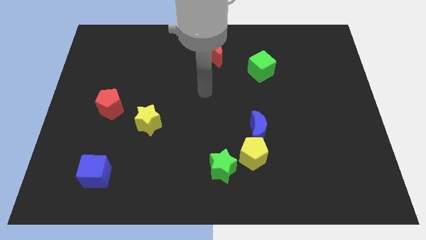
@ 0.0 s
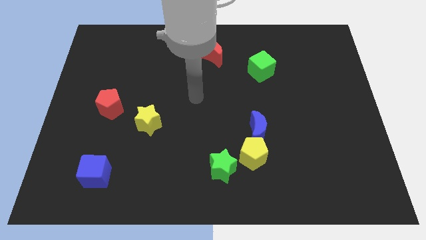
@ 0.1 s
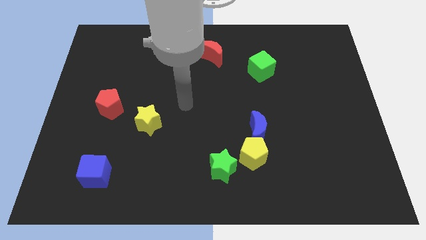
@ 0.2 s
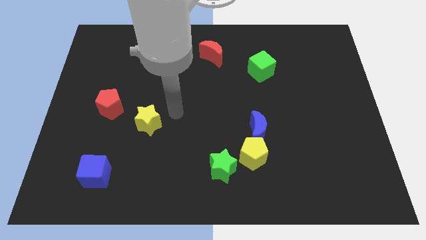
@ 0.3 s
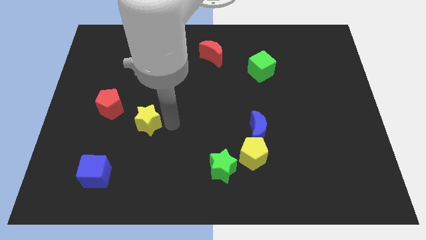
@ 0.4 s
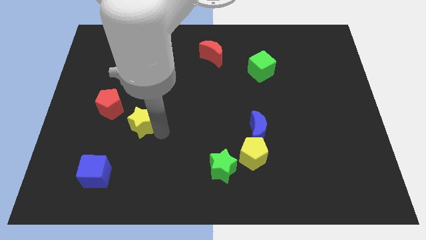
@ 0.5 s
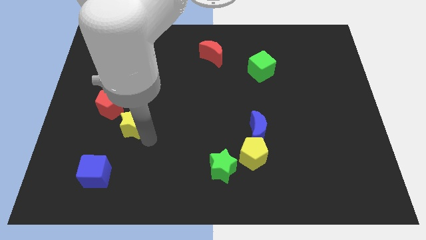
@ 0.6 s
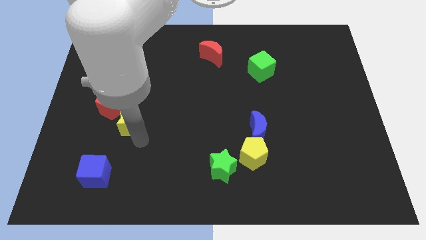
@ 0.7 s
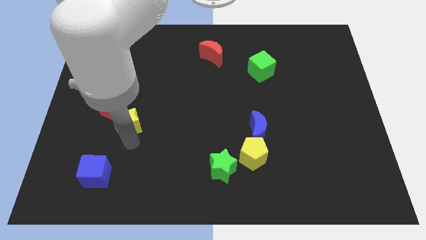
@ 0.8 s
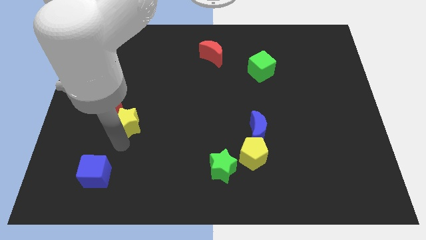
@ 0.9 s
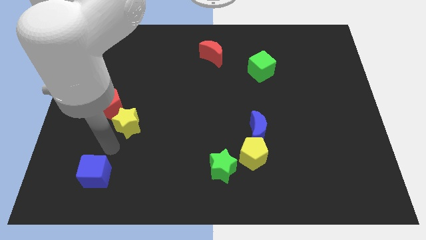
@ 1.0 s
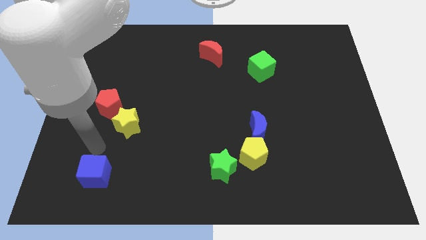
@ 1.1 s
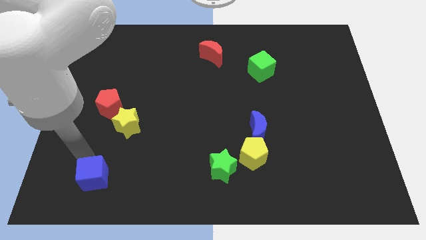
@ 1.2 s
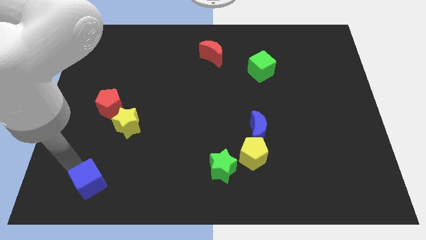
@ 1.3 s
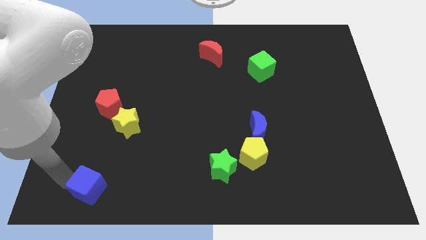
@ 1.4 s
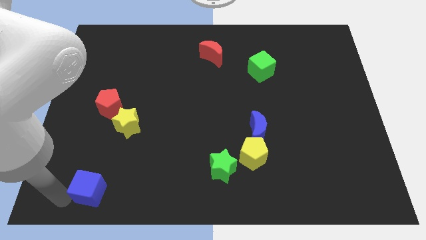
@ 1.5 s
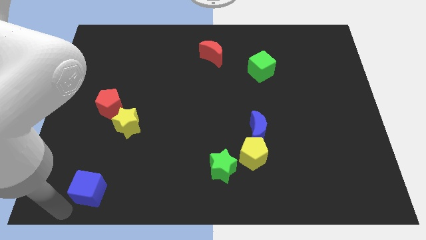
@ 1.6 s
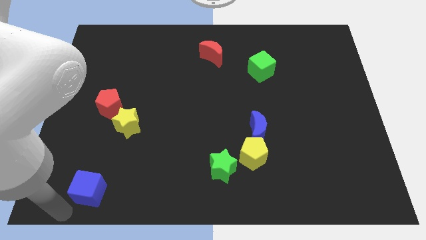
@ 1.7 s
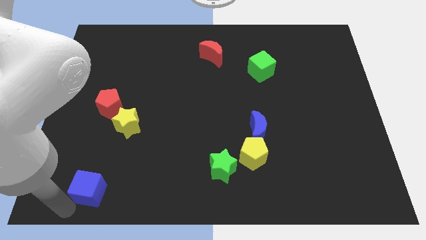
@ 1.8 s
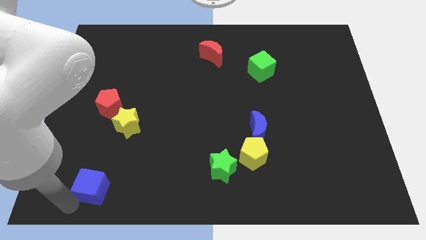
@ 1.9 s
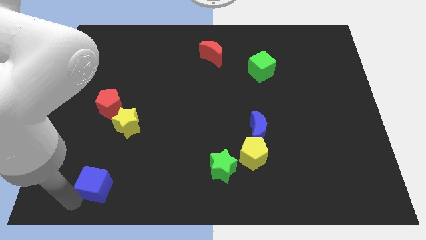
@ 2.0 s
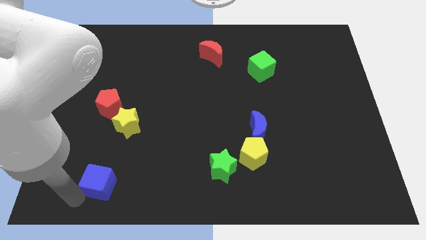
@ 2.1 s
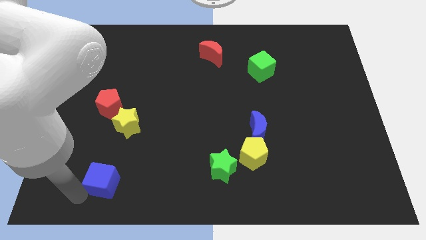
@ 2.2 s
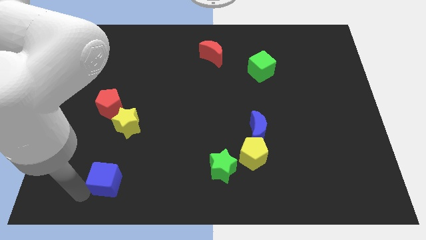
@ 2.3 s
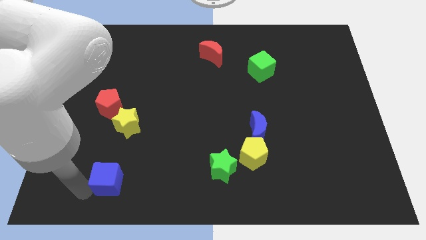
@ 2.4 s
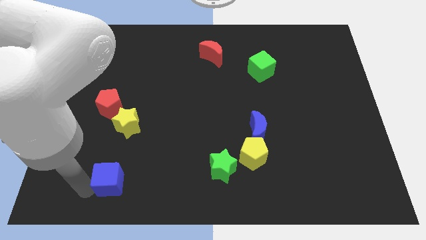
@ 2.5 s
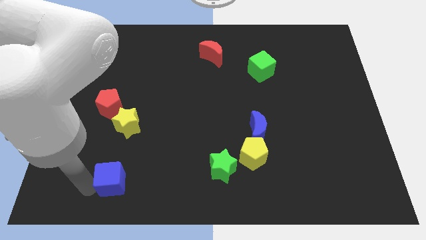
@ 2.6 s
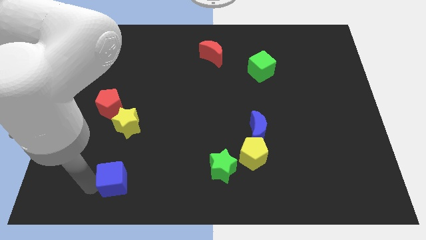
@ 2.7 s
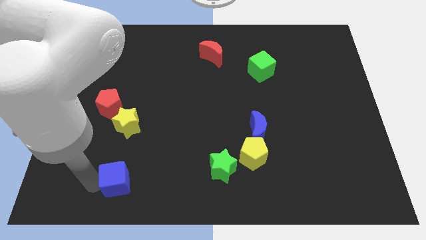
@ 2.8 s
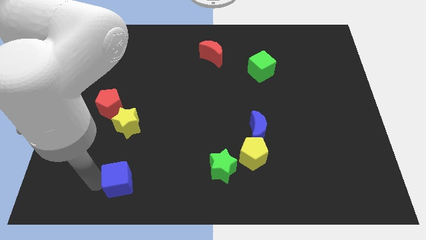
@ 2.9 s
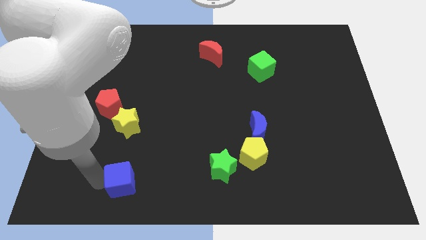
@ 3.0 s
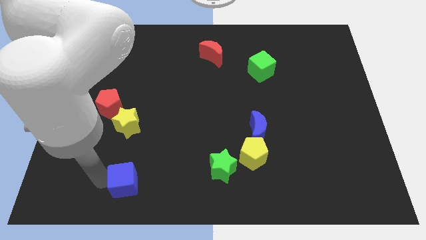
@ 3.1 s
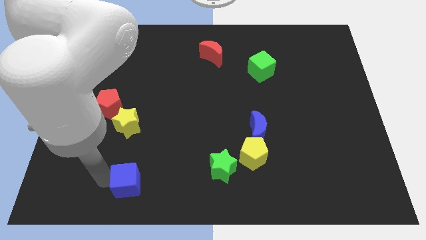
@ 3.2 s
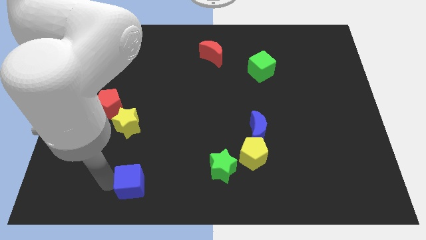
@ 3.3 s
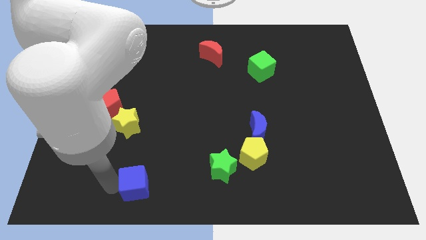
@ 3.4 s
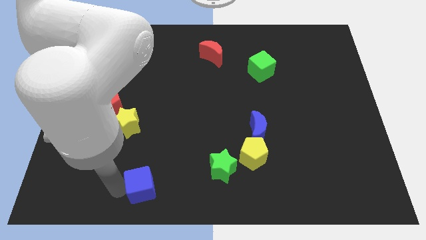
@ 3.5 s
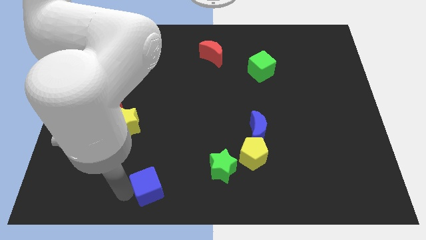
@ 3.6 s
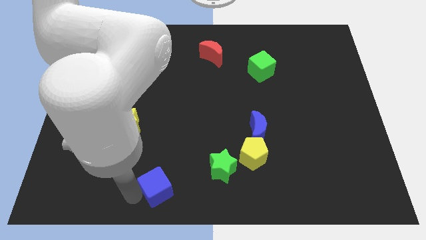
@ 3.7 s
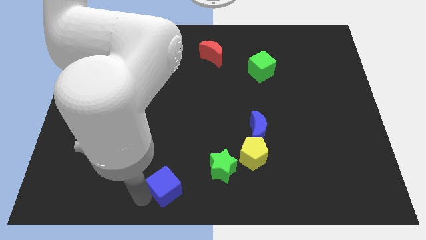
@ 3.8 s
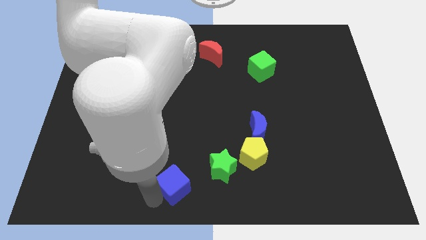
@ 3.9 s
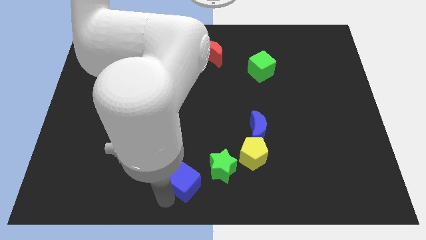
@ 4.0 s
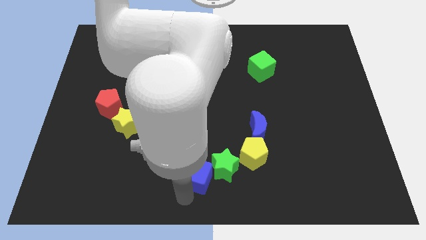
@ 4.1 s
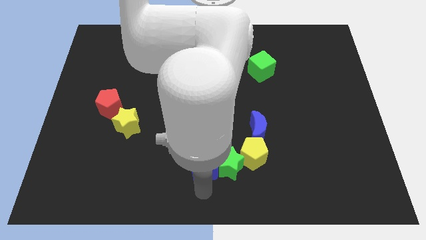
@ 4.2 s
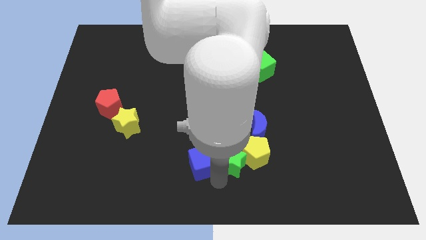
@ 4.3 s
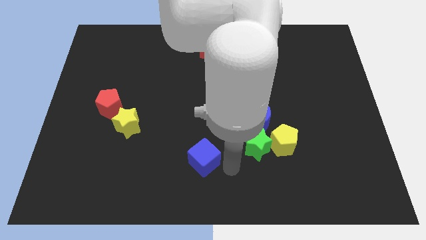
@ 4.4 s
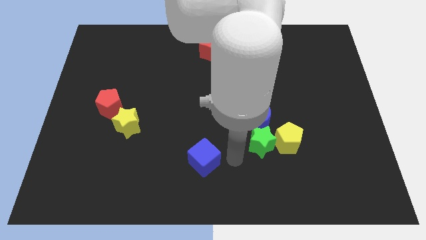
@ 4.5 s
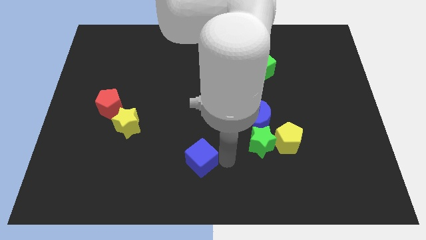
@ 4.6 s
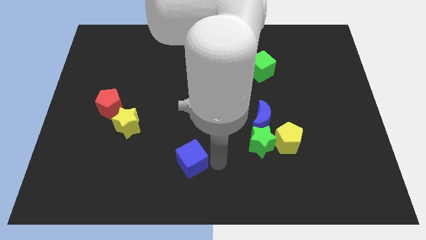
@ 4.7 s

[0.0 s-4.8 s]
slightly move the blue cube diagonally up and to the right

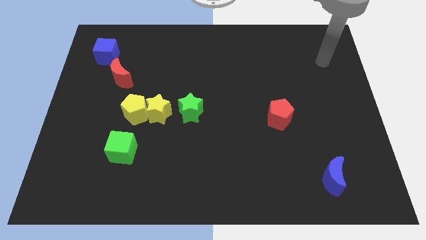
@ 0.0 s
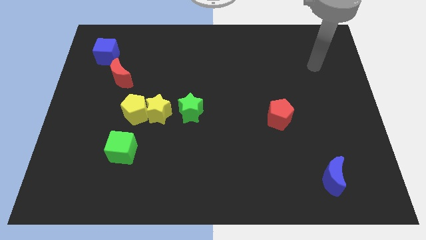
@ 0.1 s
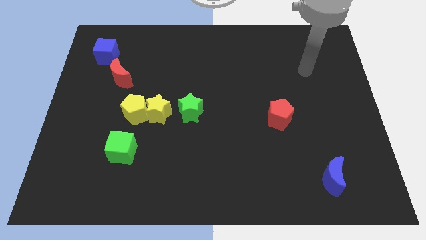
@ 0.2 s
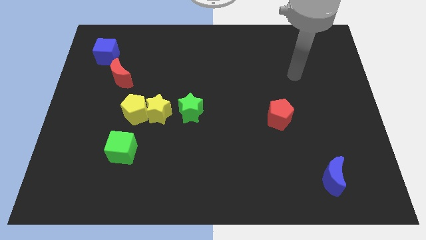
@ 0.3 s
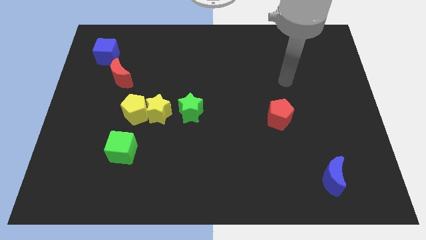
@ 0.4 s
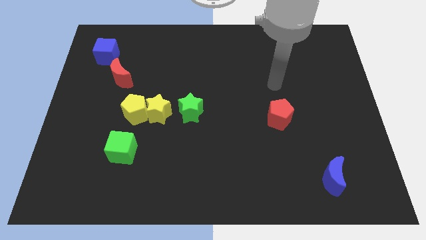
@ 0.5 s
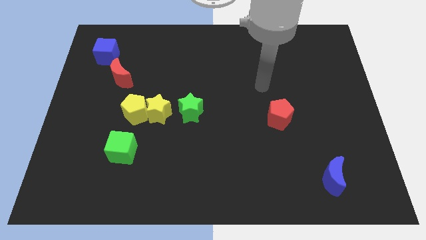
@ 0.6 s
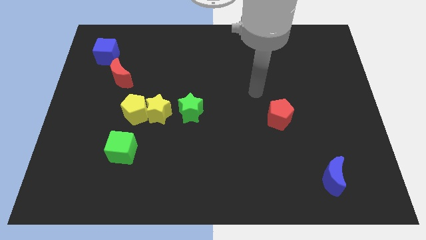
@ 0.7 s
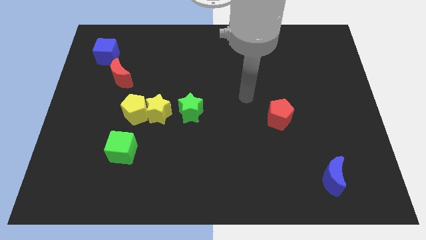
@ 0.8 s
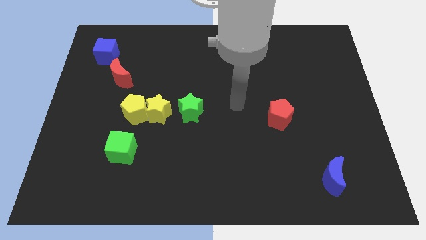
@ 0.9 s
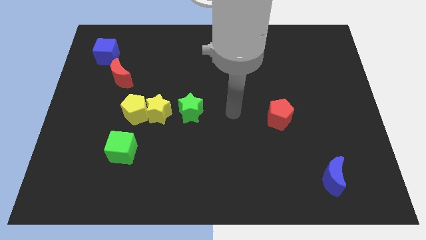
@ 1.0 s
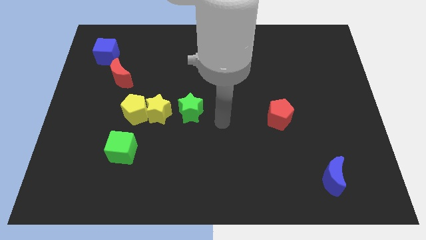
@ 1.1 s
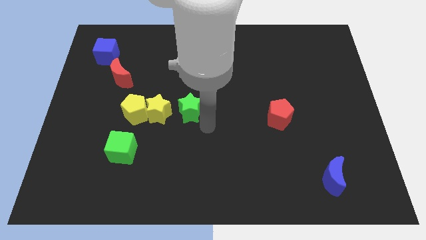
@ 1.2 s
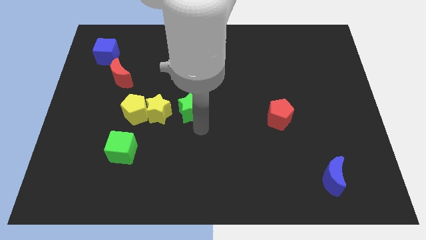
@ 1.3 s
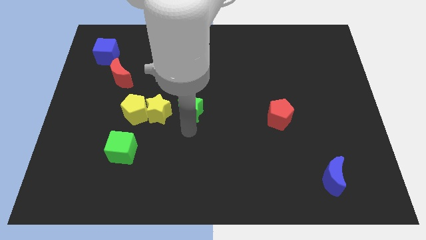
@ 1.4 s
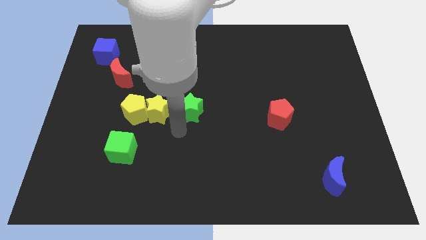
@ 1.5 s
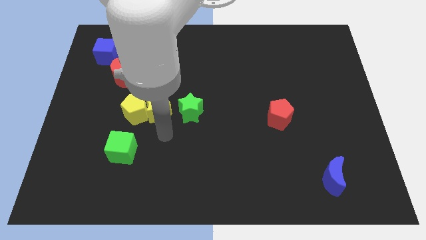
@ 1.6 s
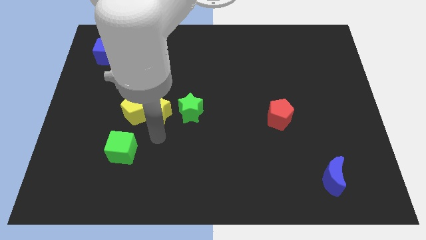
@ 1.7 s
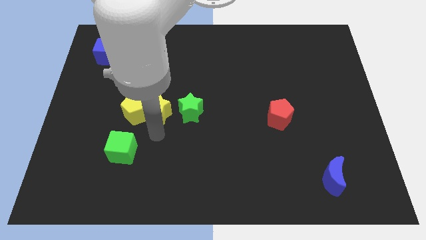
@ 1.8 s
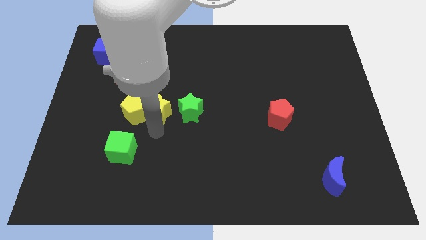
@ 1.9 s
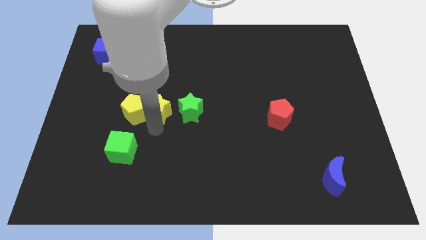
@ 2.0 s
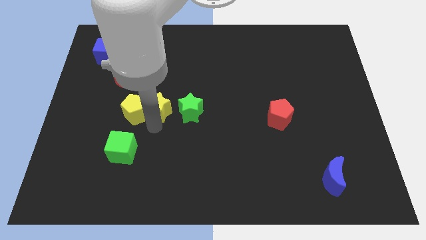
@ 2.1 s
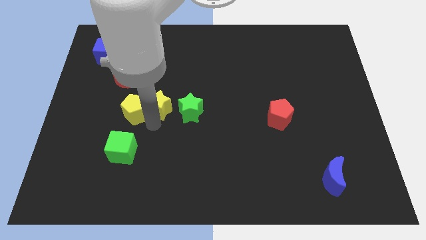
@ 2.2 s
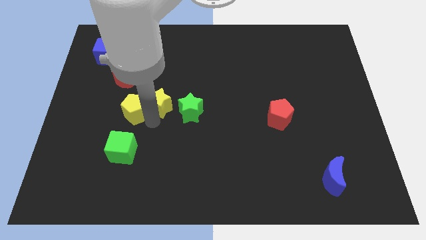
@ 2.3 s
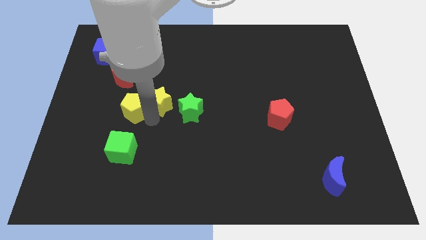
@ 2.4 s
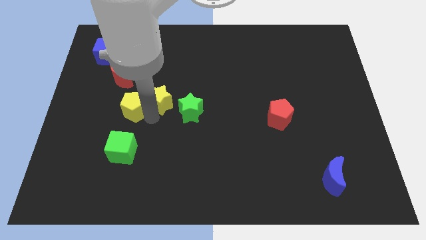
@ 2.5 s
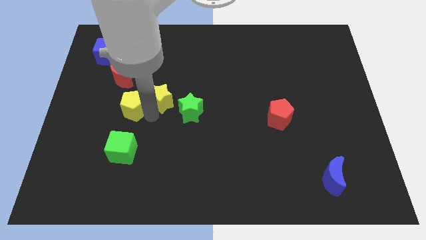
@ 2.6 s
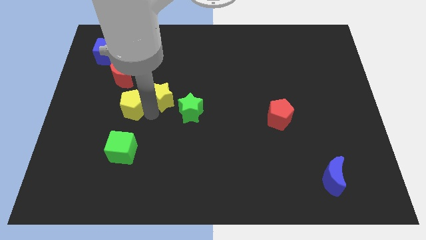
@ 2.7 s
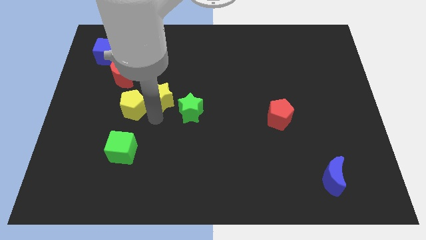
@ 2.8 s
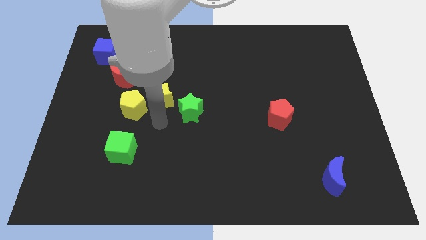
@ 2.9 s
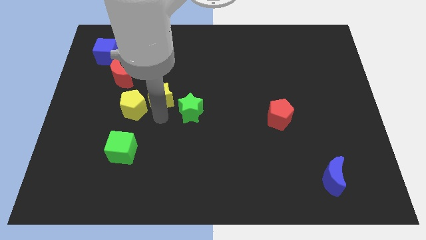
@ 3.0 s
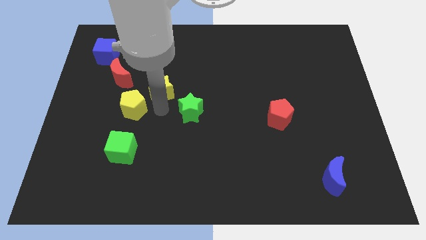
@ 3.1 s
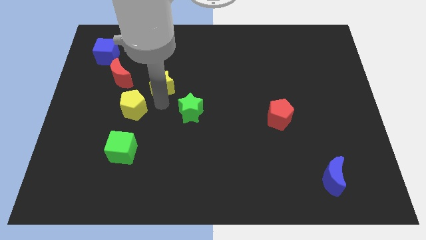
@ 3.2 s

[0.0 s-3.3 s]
move the yellow star up a little bit

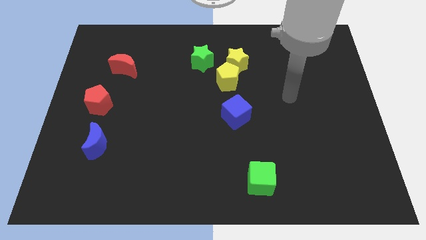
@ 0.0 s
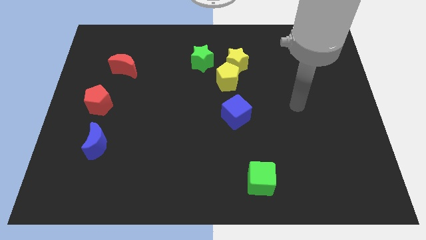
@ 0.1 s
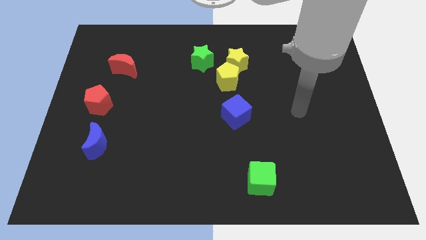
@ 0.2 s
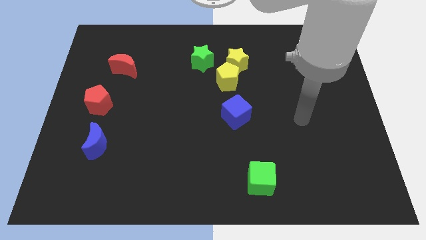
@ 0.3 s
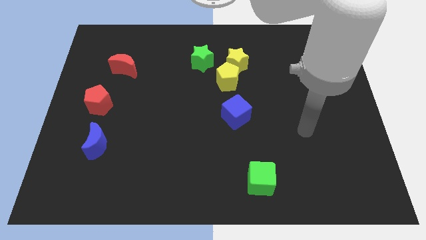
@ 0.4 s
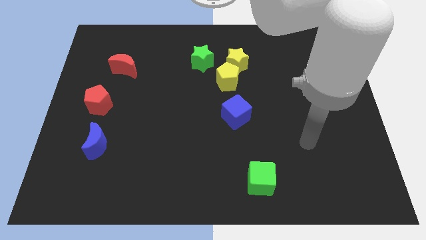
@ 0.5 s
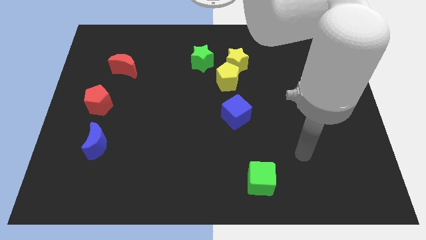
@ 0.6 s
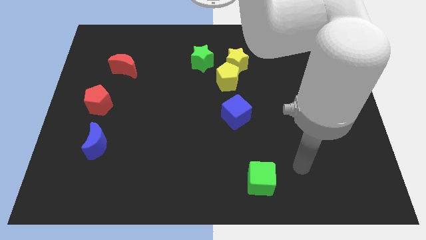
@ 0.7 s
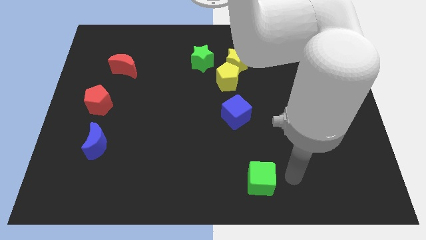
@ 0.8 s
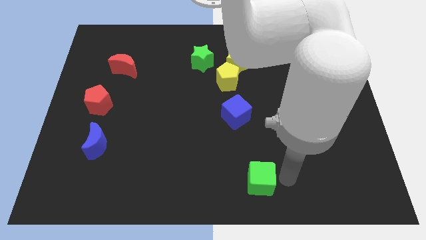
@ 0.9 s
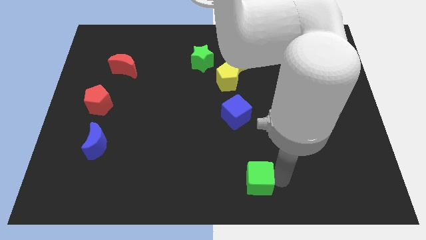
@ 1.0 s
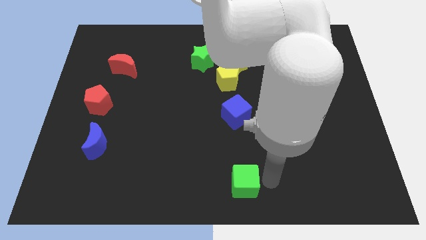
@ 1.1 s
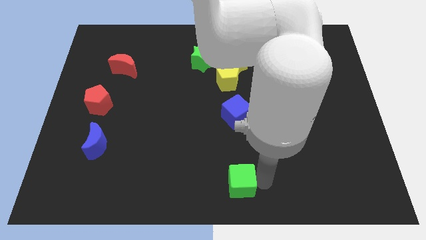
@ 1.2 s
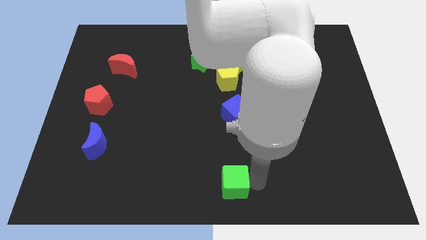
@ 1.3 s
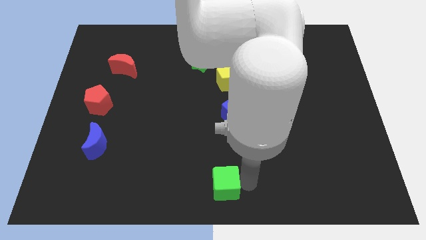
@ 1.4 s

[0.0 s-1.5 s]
slightly slide the green cube left
